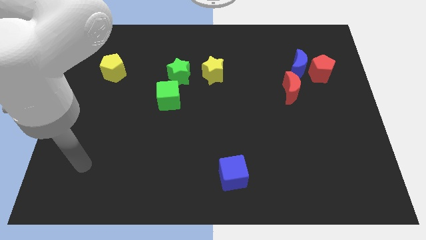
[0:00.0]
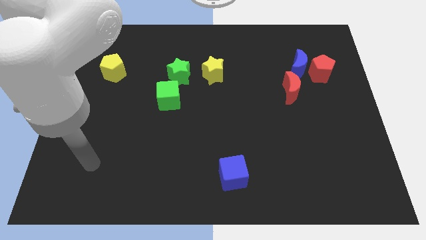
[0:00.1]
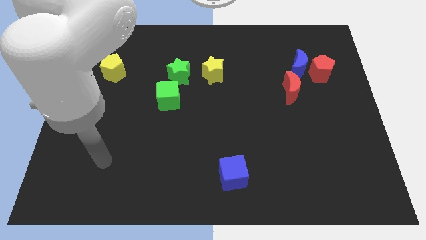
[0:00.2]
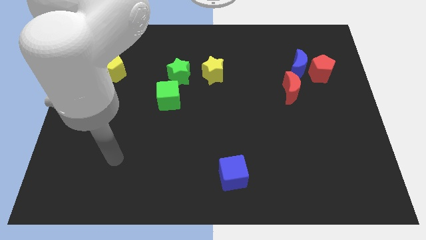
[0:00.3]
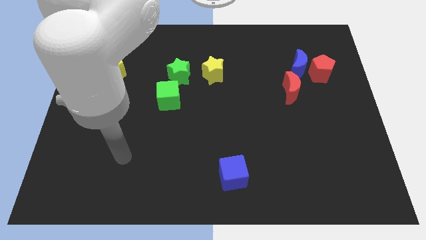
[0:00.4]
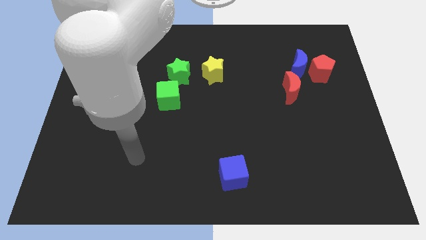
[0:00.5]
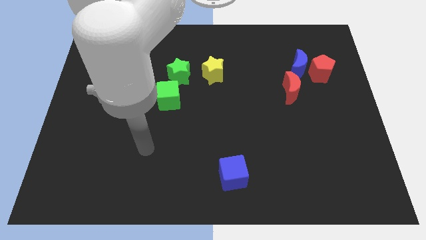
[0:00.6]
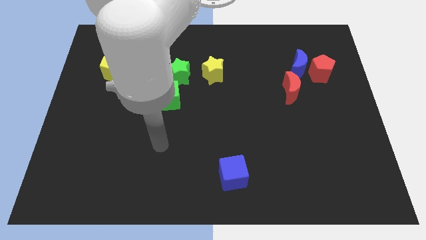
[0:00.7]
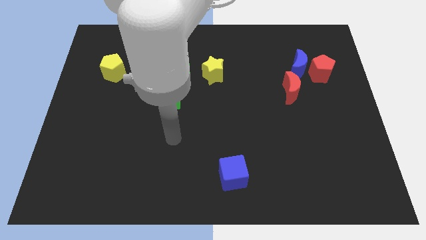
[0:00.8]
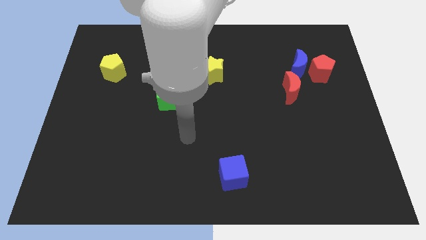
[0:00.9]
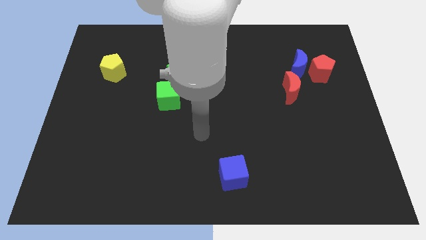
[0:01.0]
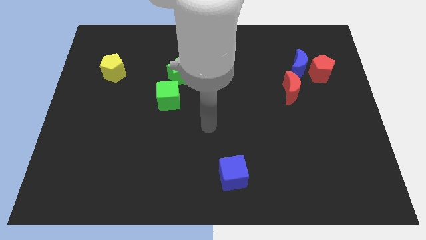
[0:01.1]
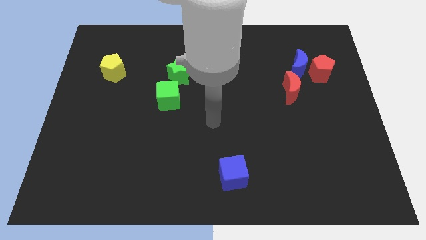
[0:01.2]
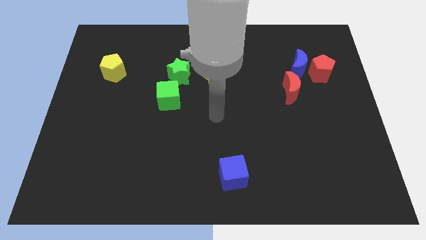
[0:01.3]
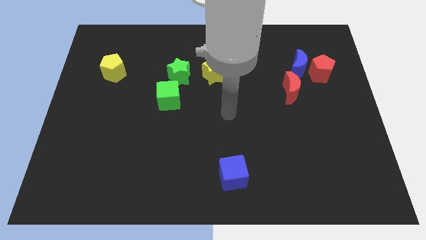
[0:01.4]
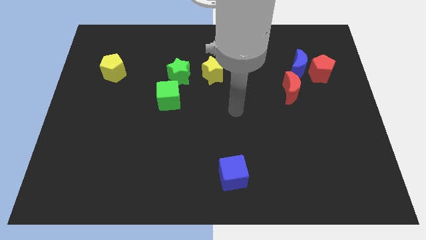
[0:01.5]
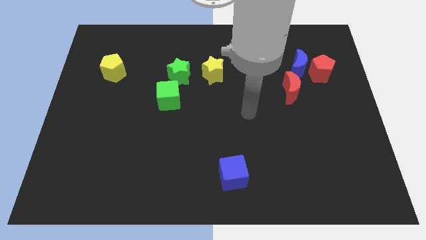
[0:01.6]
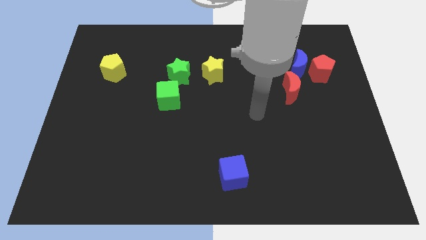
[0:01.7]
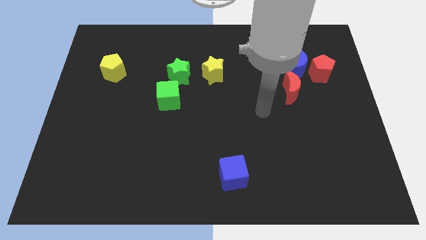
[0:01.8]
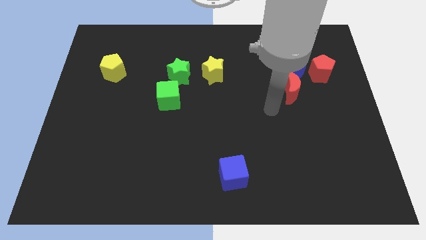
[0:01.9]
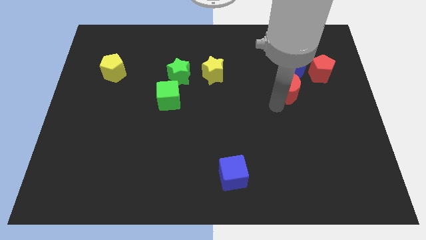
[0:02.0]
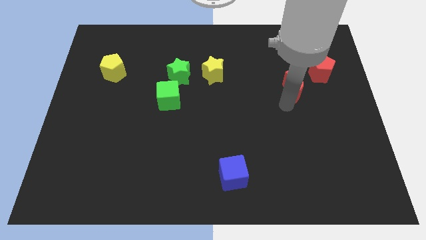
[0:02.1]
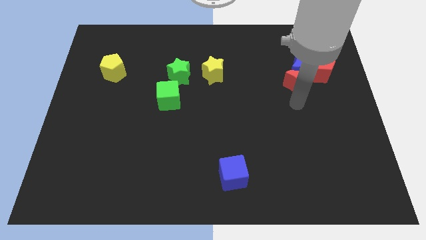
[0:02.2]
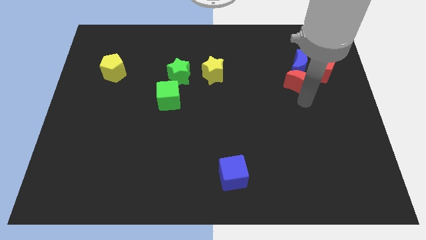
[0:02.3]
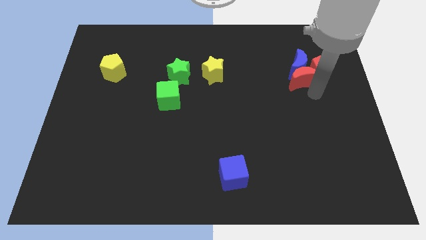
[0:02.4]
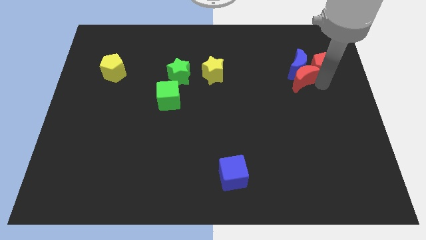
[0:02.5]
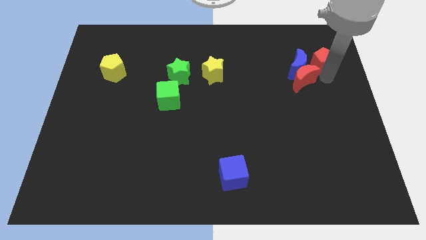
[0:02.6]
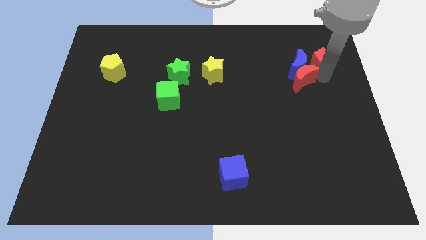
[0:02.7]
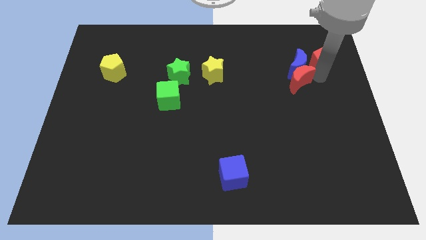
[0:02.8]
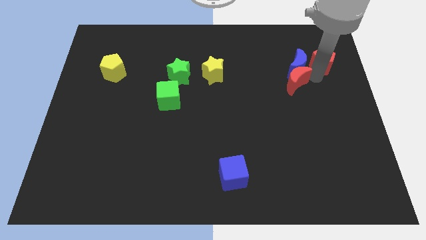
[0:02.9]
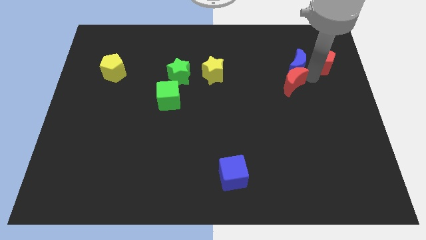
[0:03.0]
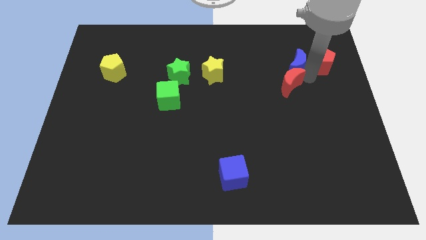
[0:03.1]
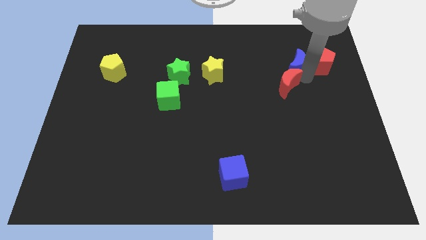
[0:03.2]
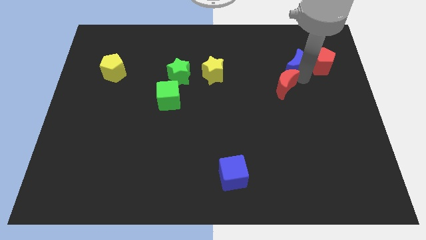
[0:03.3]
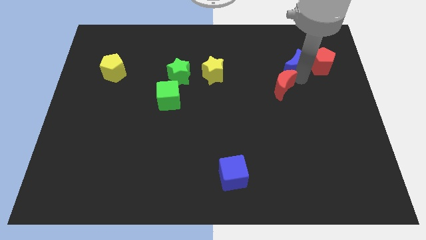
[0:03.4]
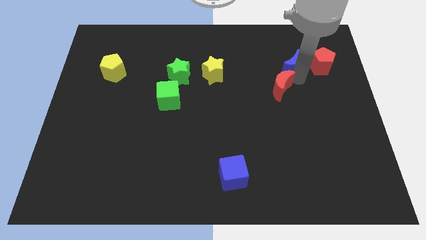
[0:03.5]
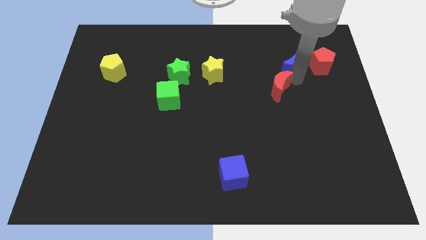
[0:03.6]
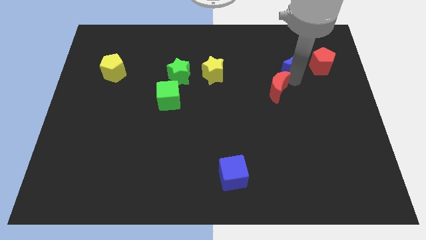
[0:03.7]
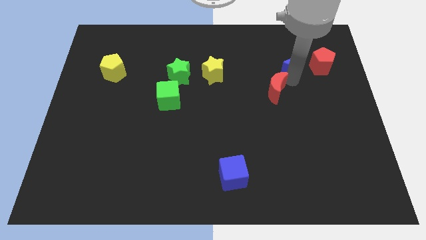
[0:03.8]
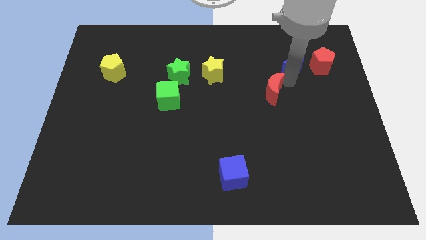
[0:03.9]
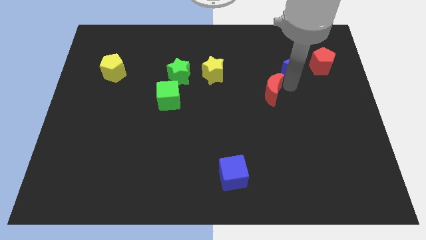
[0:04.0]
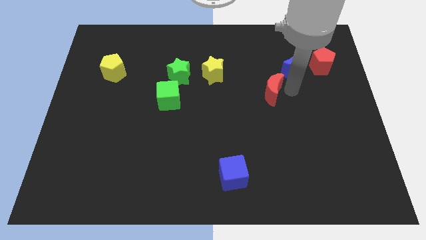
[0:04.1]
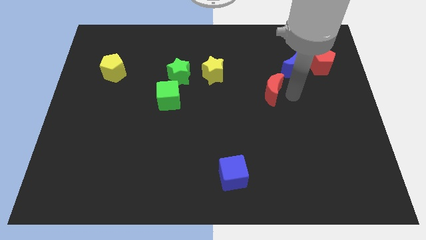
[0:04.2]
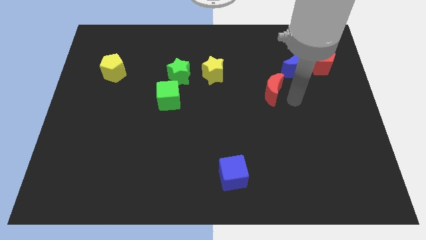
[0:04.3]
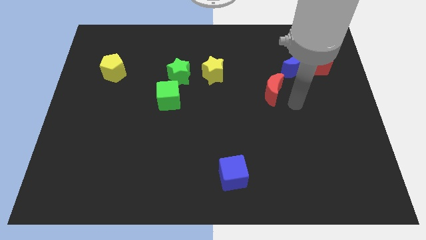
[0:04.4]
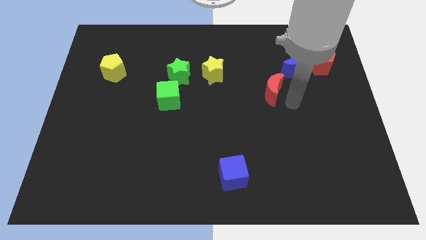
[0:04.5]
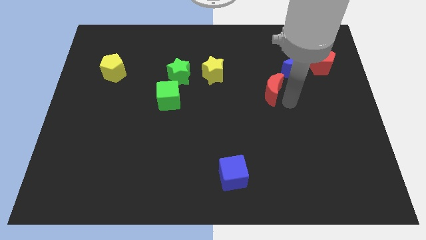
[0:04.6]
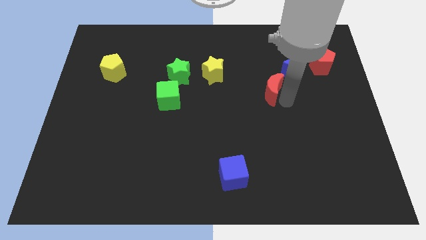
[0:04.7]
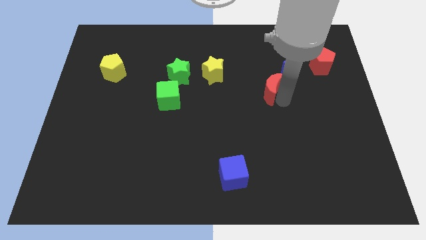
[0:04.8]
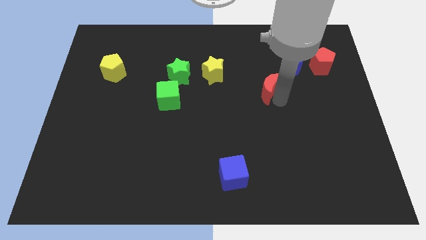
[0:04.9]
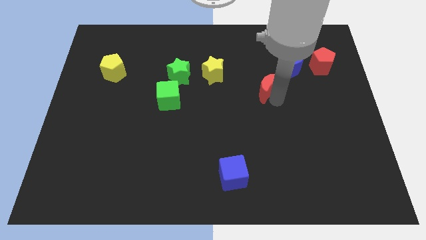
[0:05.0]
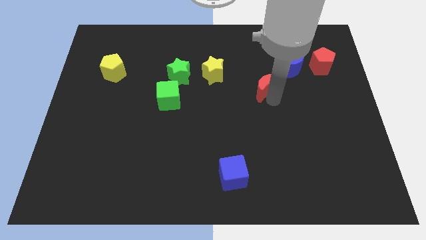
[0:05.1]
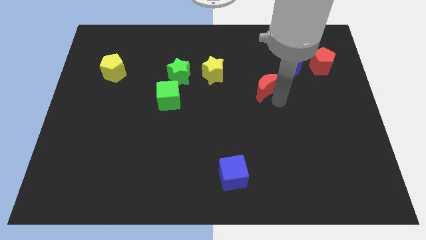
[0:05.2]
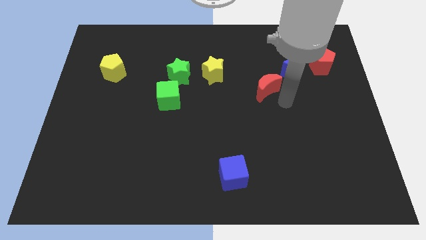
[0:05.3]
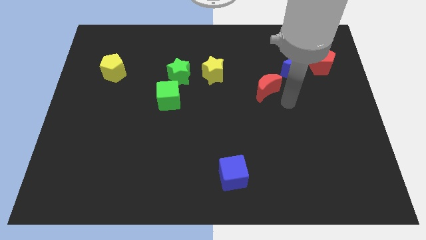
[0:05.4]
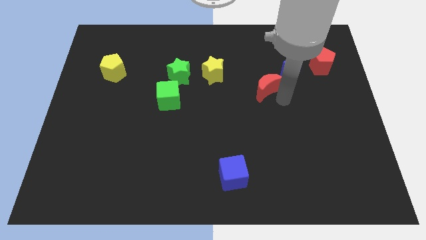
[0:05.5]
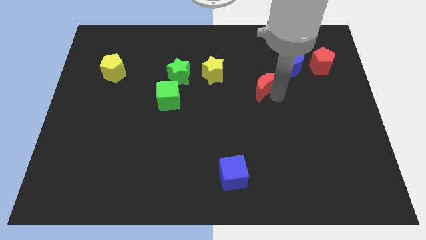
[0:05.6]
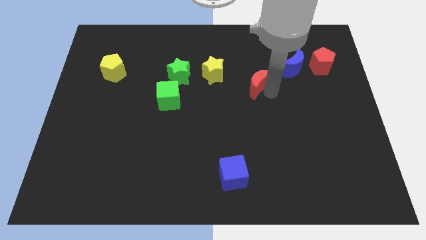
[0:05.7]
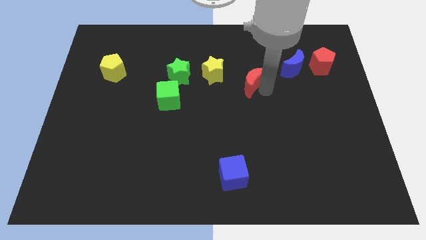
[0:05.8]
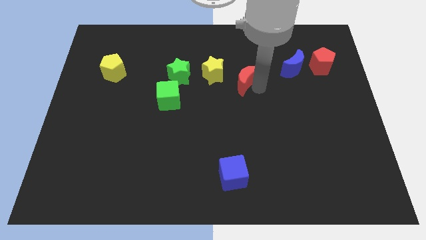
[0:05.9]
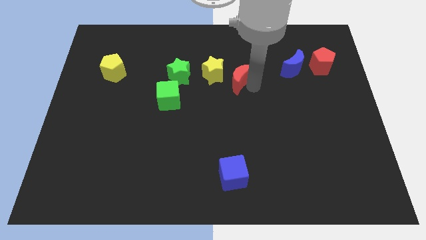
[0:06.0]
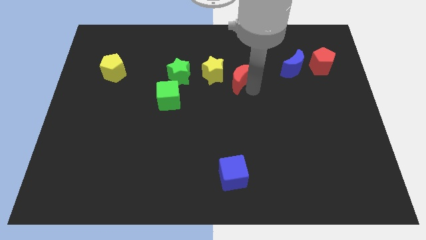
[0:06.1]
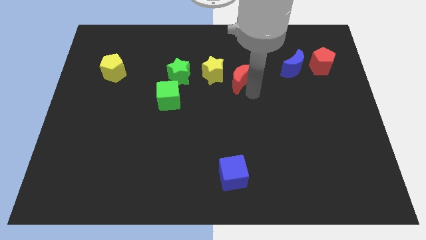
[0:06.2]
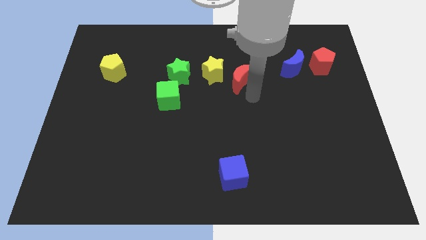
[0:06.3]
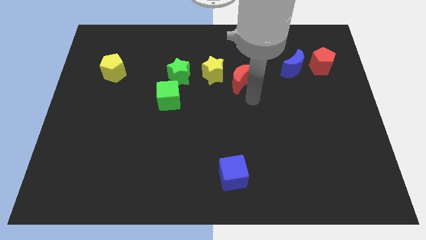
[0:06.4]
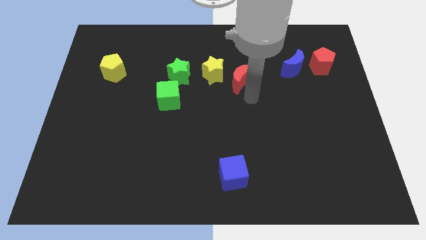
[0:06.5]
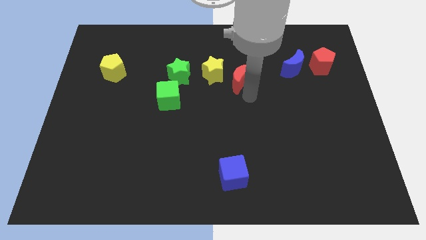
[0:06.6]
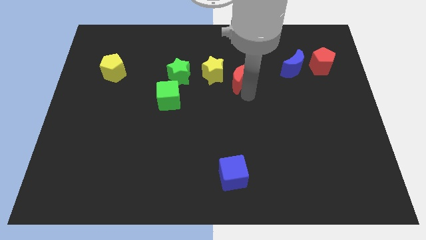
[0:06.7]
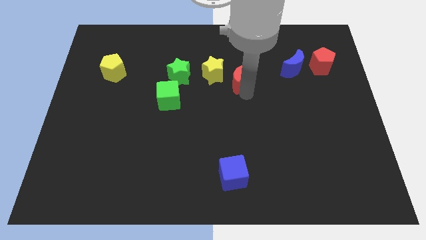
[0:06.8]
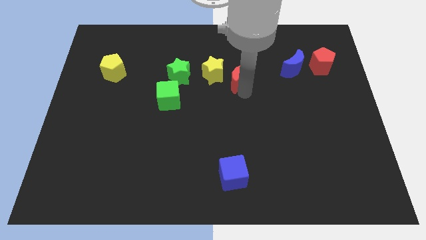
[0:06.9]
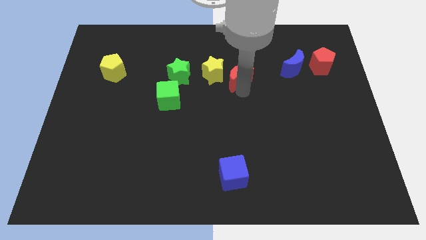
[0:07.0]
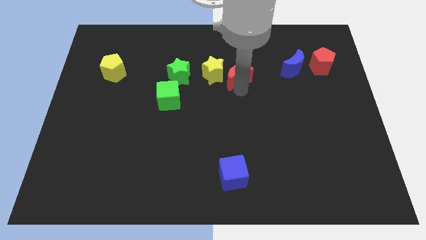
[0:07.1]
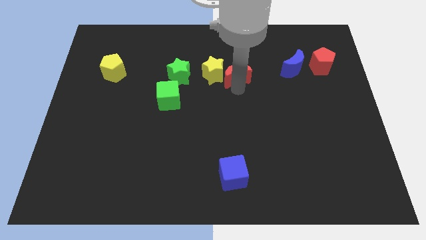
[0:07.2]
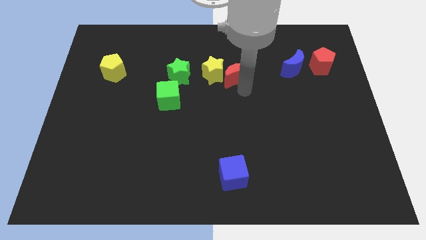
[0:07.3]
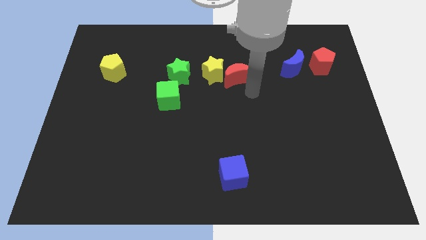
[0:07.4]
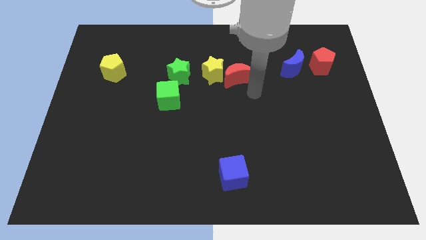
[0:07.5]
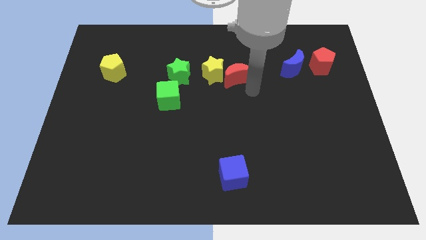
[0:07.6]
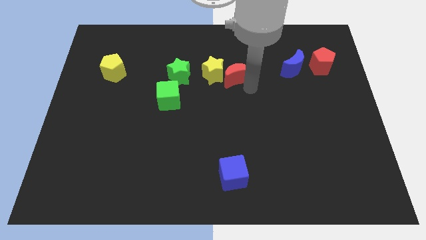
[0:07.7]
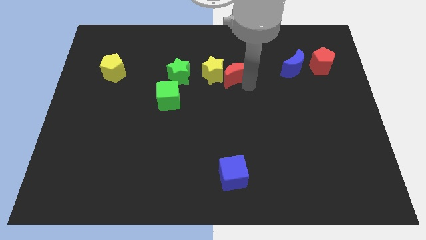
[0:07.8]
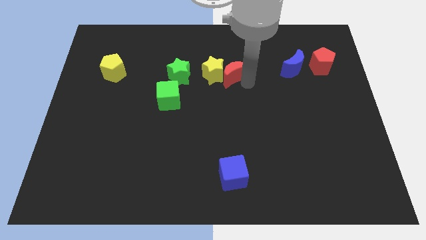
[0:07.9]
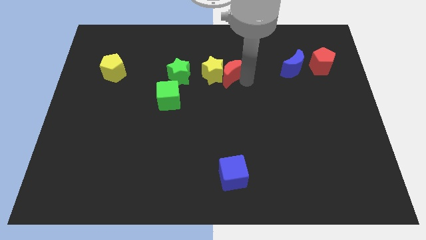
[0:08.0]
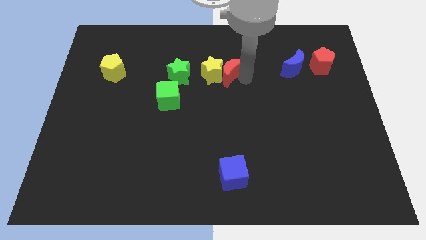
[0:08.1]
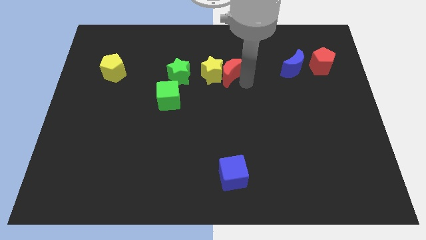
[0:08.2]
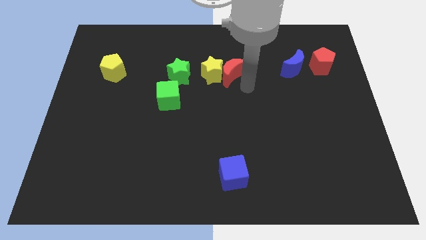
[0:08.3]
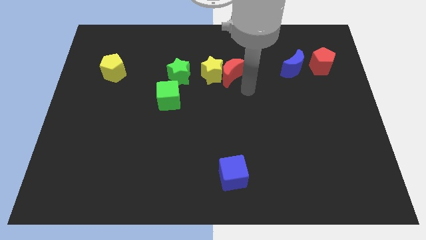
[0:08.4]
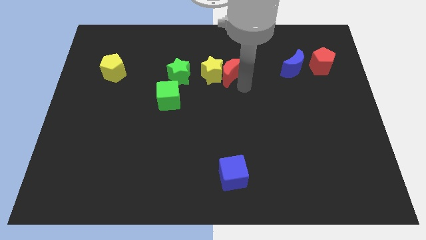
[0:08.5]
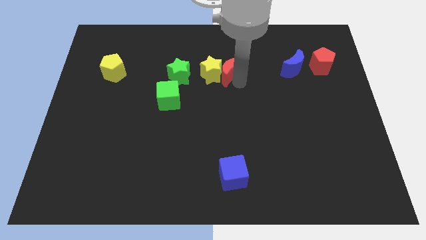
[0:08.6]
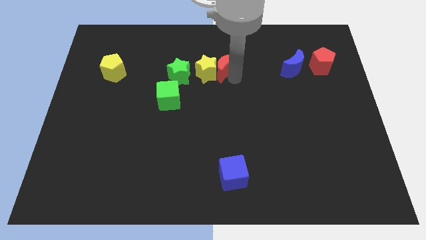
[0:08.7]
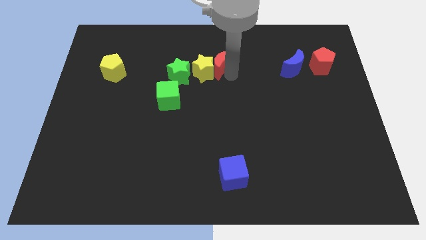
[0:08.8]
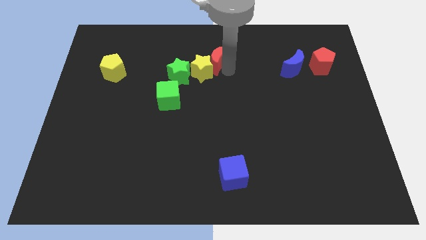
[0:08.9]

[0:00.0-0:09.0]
move the red moon diagonally up and to the right of the green star
